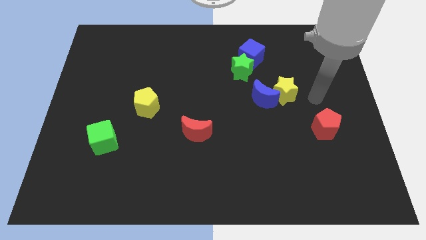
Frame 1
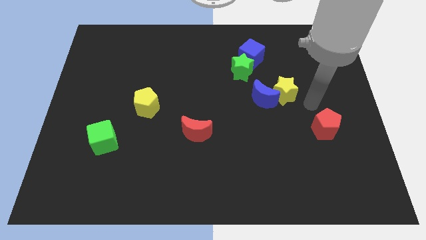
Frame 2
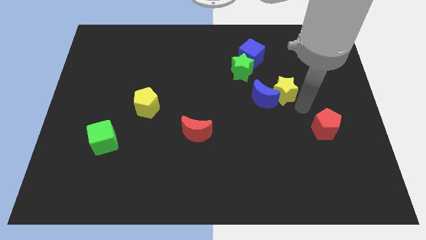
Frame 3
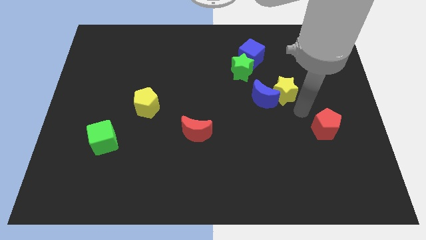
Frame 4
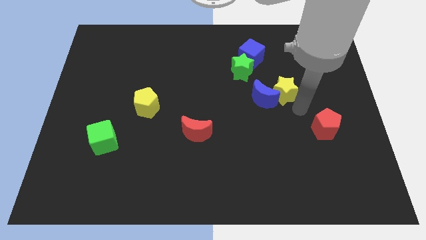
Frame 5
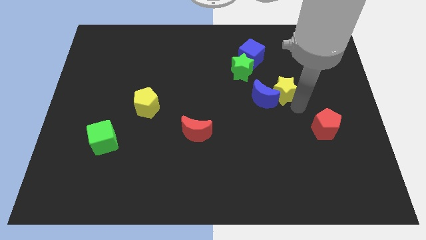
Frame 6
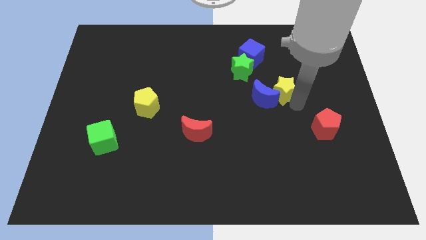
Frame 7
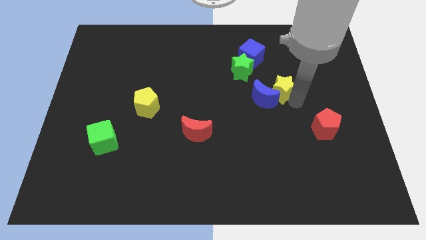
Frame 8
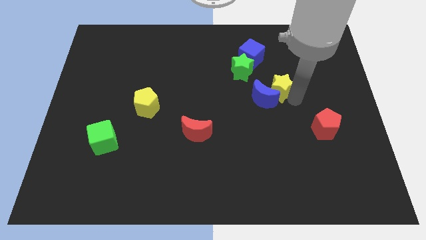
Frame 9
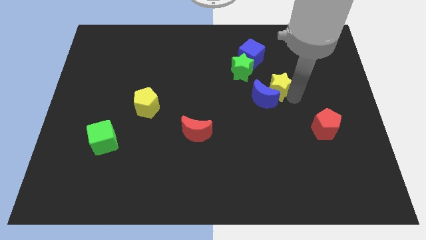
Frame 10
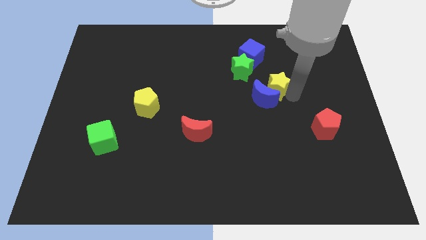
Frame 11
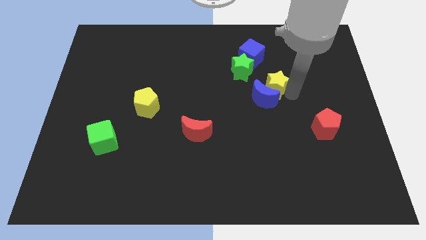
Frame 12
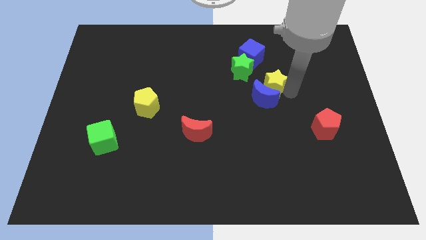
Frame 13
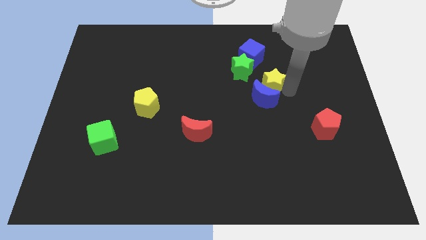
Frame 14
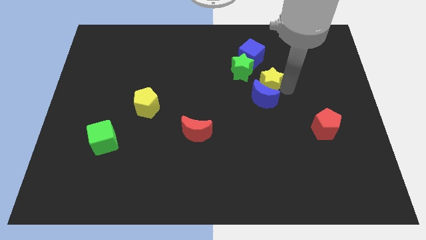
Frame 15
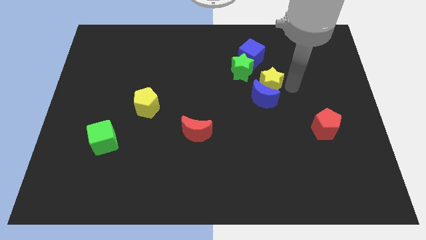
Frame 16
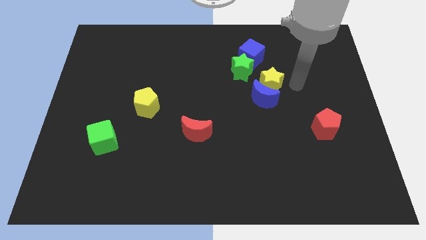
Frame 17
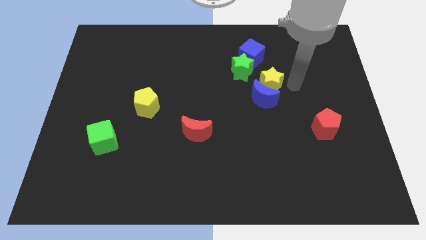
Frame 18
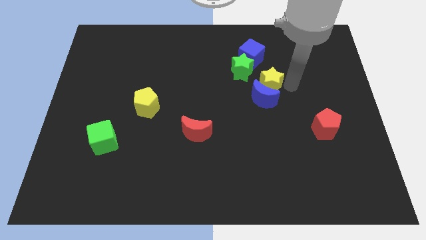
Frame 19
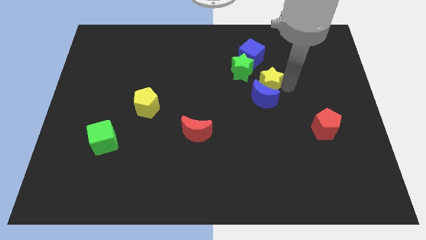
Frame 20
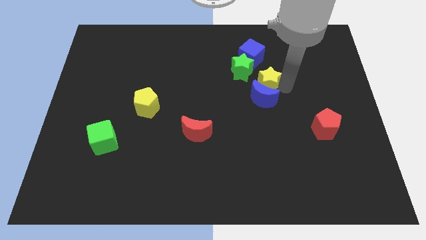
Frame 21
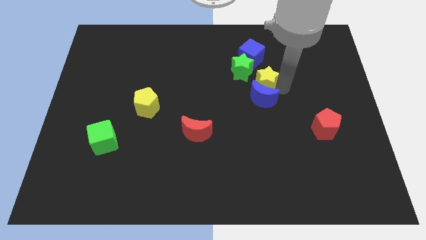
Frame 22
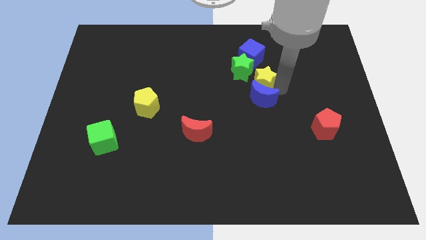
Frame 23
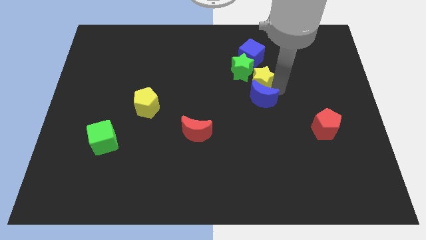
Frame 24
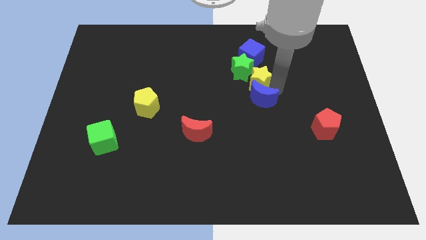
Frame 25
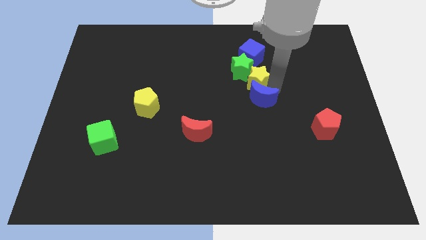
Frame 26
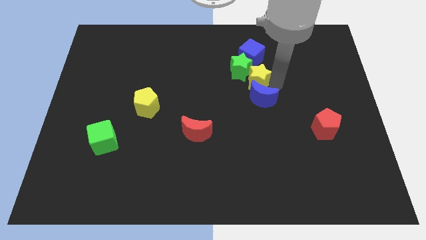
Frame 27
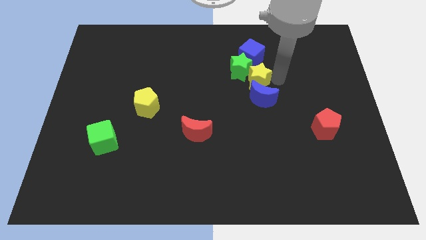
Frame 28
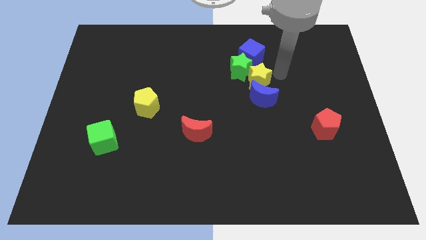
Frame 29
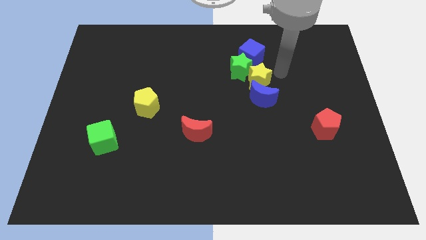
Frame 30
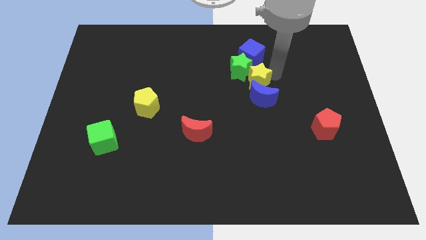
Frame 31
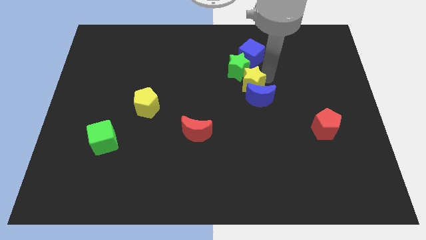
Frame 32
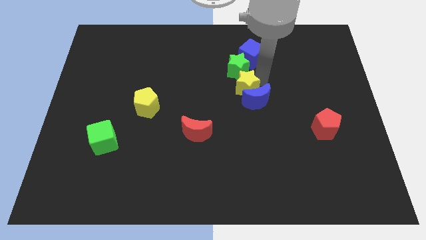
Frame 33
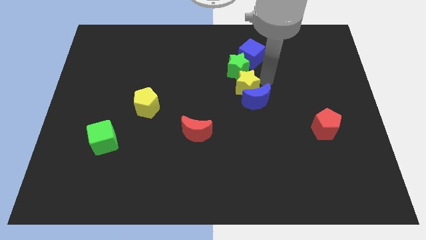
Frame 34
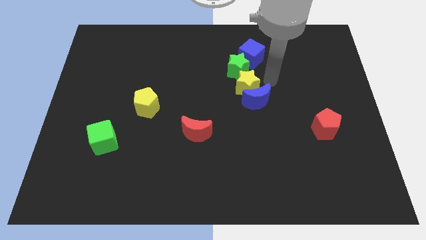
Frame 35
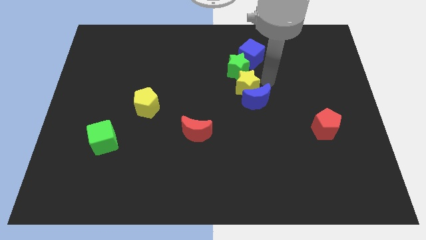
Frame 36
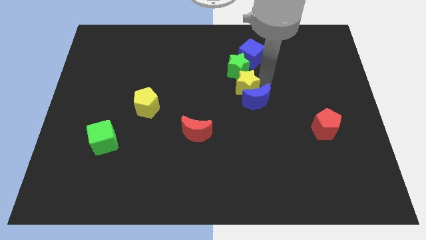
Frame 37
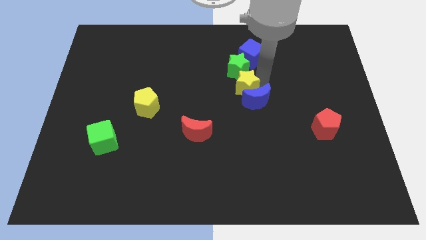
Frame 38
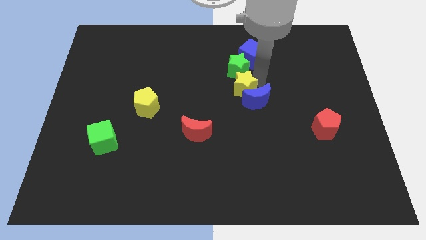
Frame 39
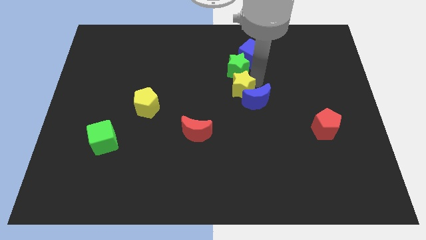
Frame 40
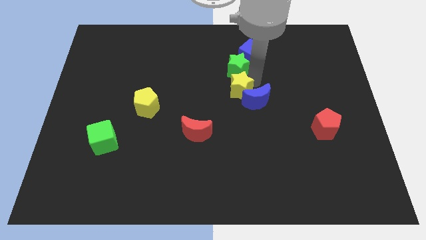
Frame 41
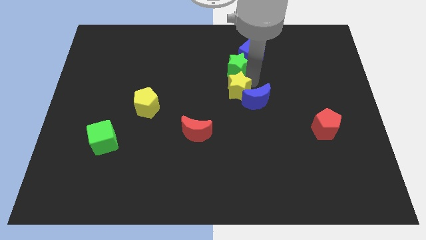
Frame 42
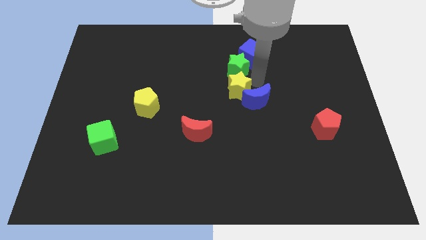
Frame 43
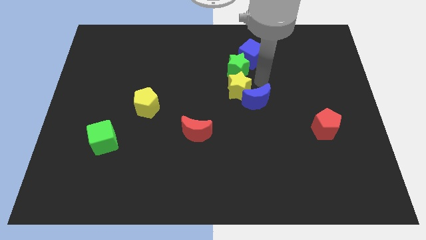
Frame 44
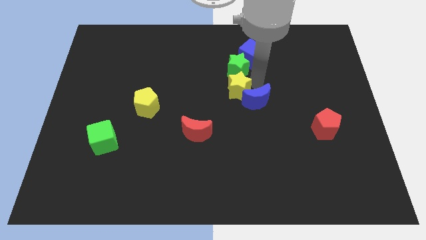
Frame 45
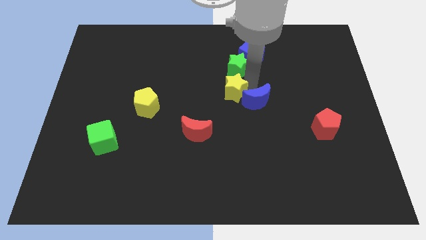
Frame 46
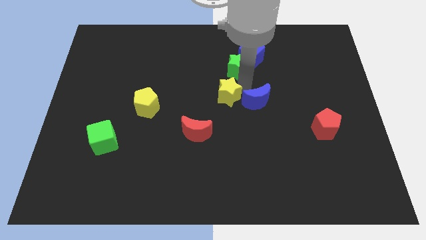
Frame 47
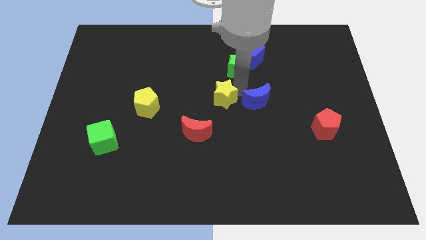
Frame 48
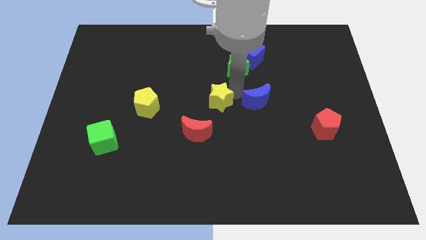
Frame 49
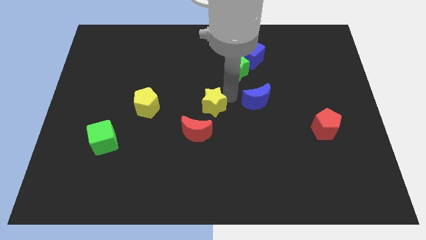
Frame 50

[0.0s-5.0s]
put the yellow star to the right side of the yellow pentagon

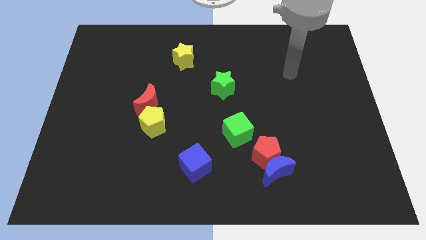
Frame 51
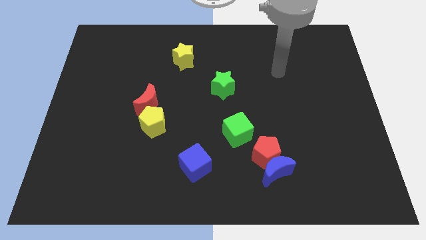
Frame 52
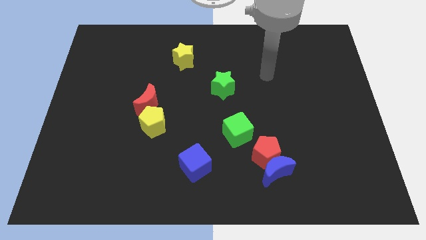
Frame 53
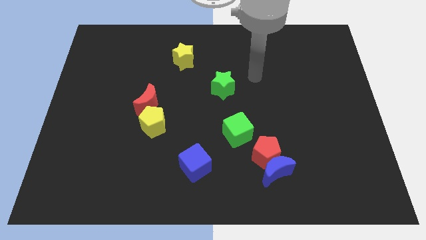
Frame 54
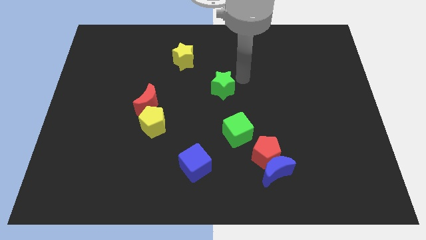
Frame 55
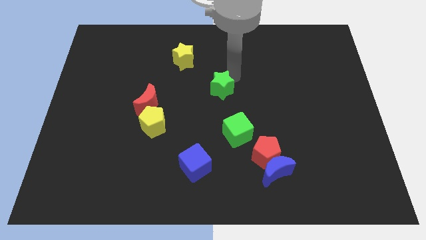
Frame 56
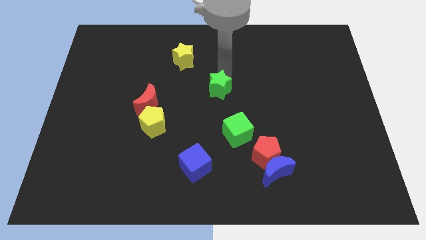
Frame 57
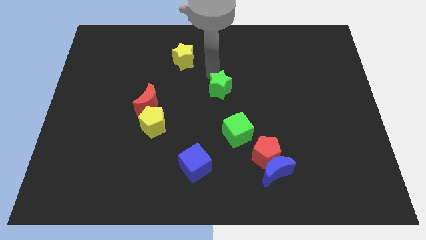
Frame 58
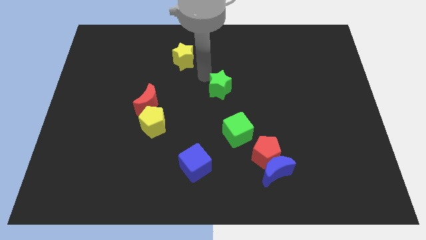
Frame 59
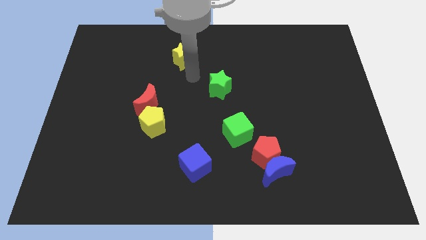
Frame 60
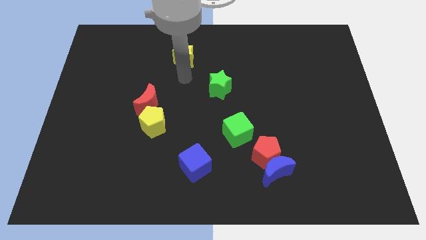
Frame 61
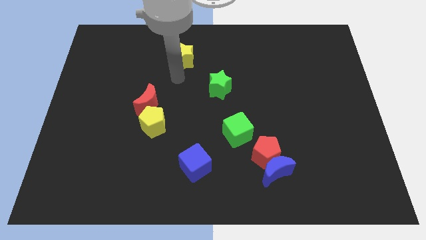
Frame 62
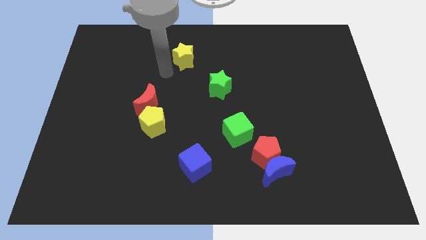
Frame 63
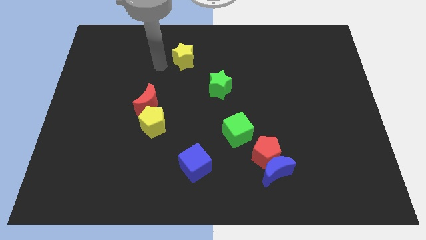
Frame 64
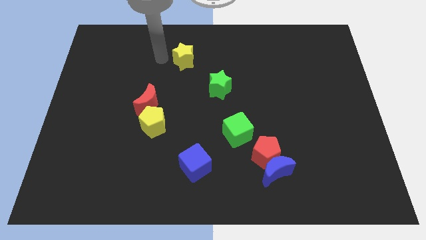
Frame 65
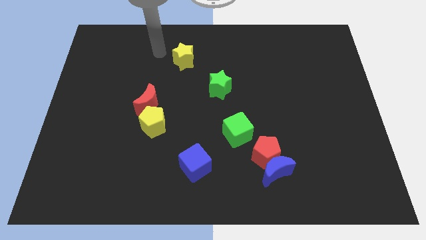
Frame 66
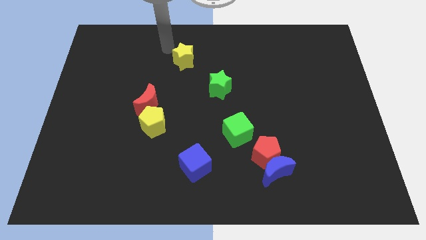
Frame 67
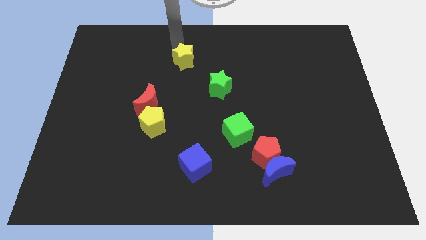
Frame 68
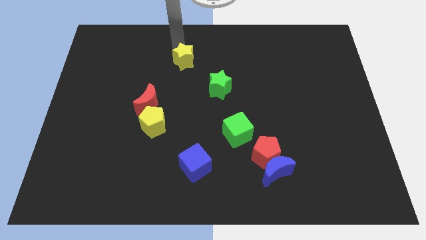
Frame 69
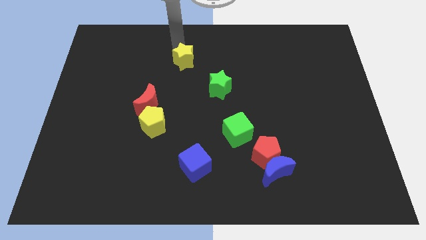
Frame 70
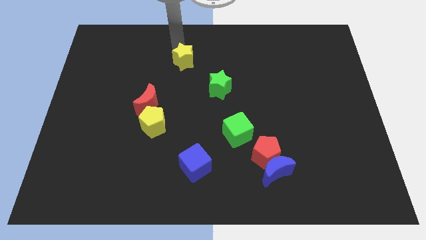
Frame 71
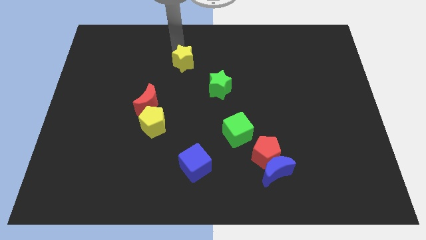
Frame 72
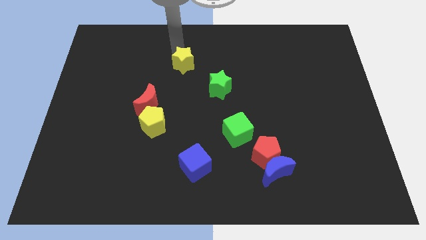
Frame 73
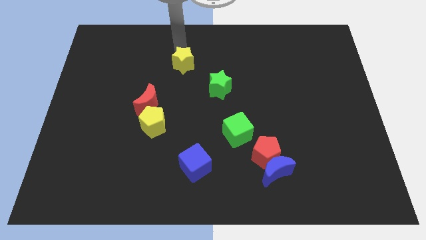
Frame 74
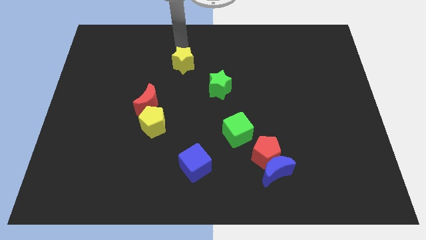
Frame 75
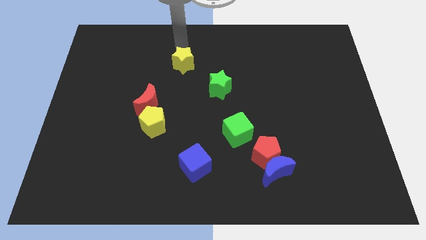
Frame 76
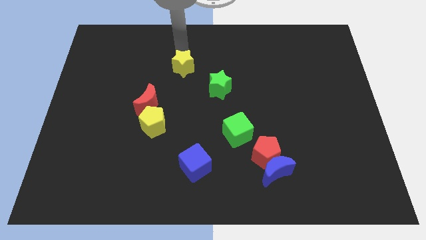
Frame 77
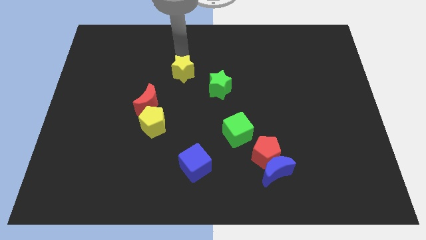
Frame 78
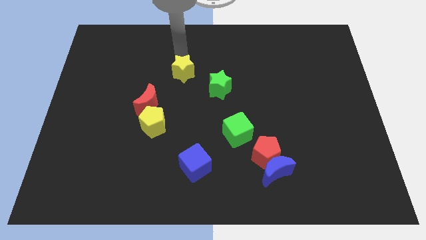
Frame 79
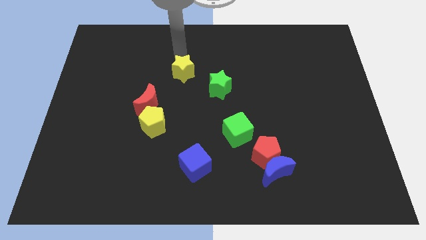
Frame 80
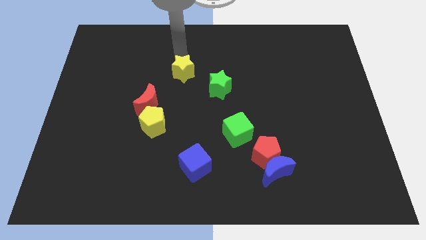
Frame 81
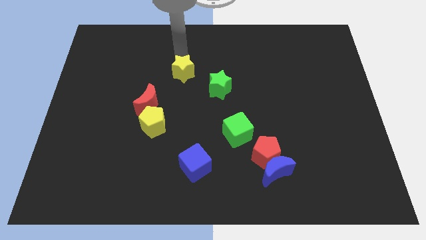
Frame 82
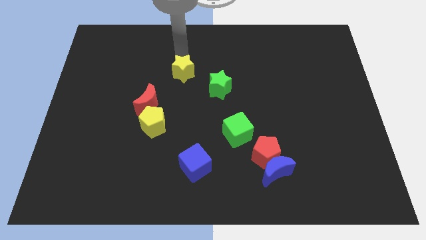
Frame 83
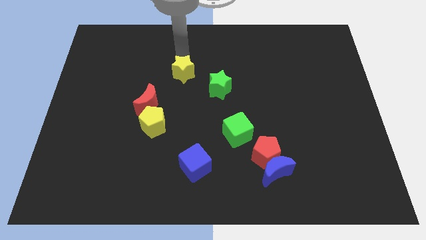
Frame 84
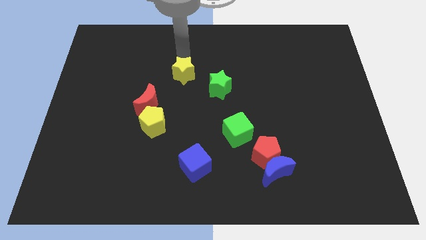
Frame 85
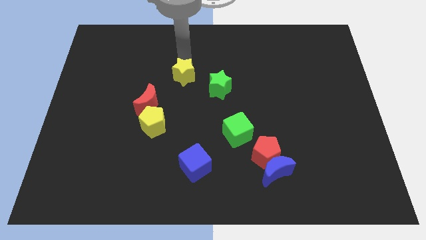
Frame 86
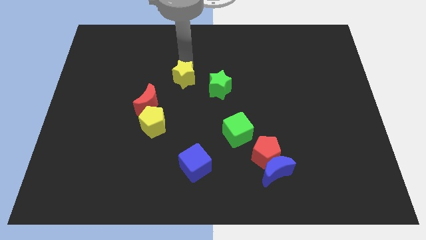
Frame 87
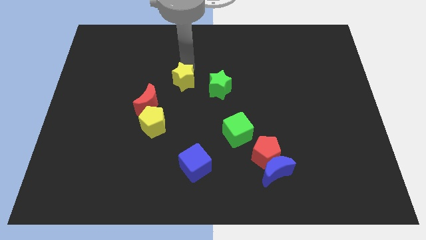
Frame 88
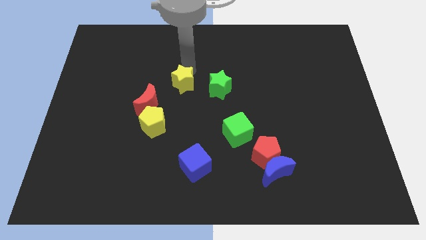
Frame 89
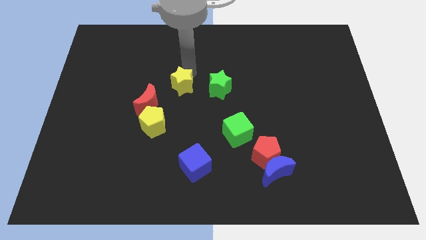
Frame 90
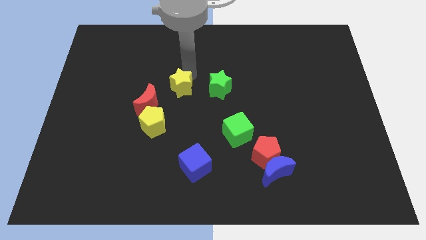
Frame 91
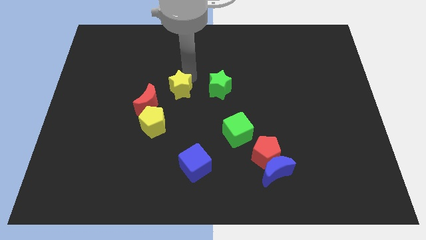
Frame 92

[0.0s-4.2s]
move the yellow star to the top right of the yellow pentagon
